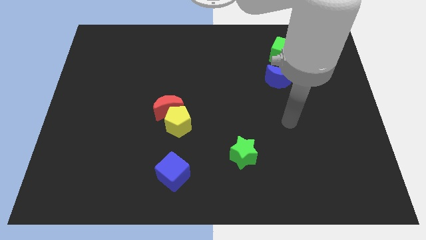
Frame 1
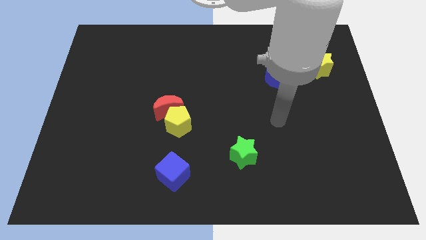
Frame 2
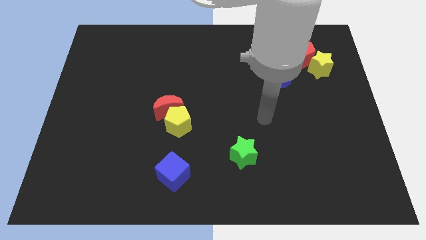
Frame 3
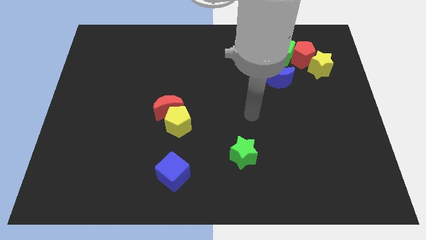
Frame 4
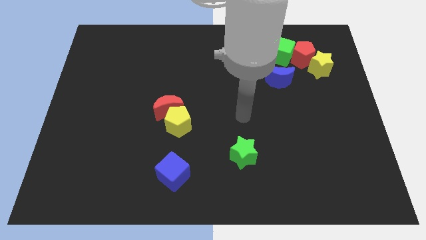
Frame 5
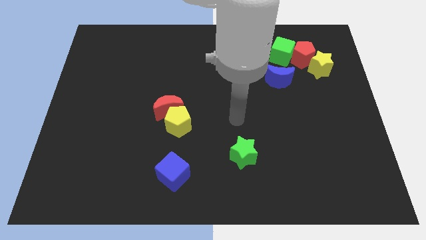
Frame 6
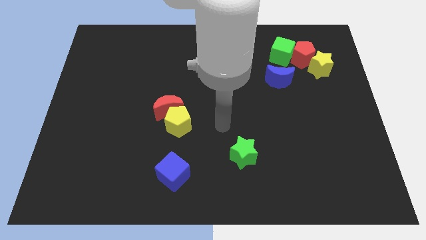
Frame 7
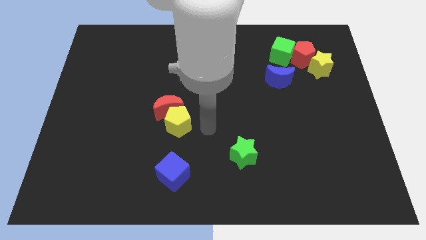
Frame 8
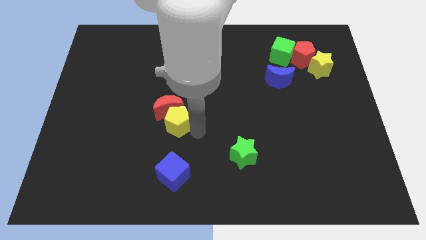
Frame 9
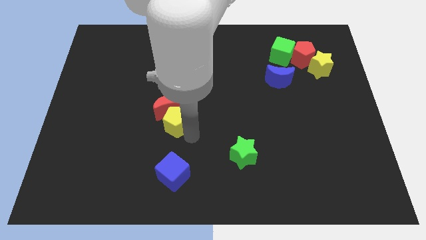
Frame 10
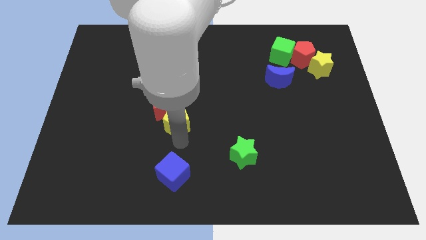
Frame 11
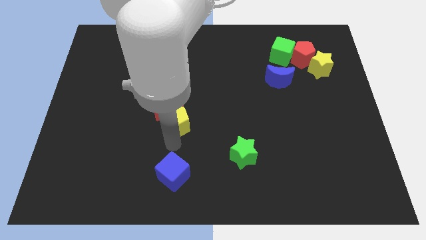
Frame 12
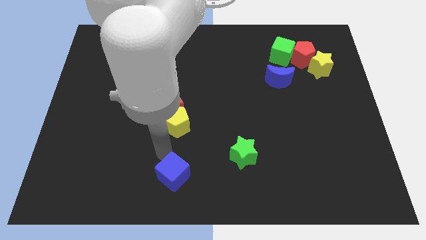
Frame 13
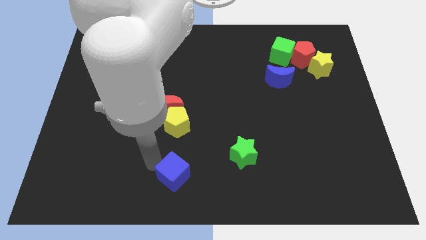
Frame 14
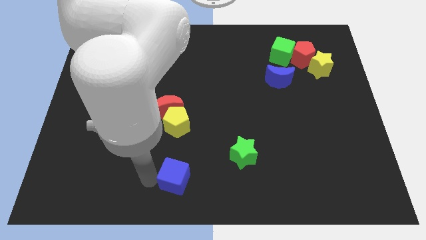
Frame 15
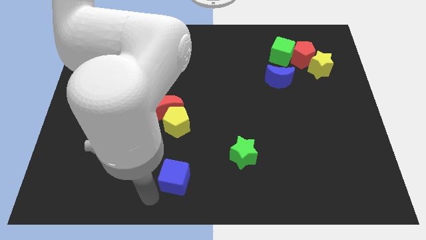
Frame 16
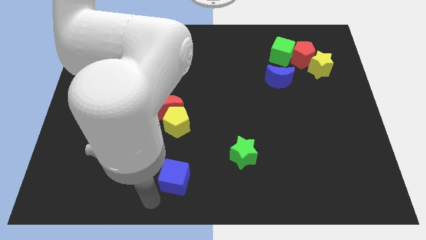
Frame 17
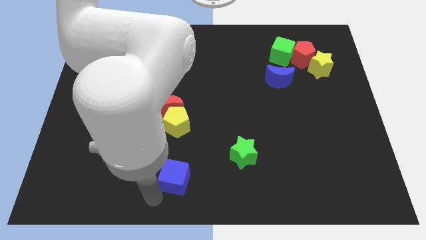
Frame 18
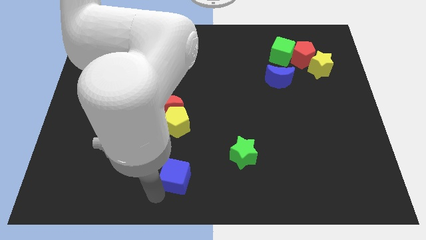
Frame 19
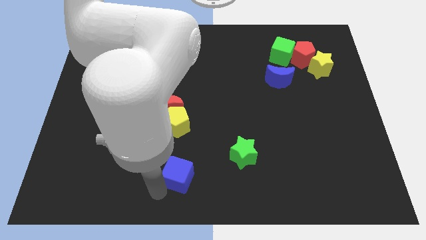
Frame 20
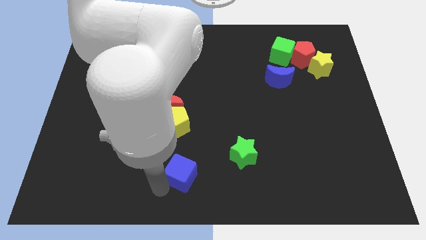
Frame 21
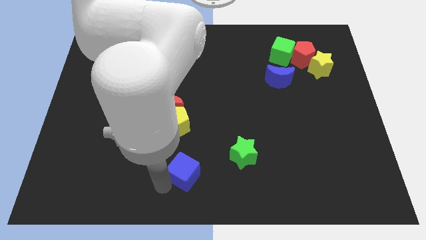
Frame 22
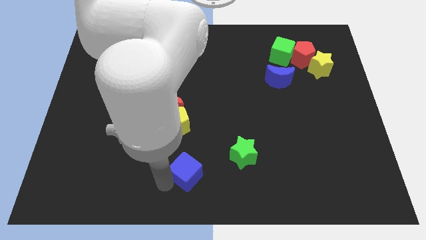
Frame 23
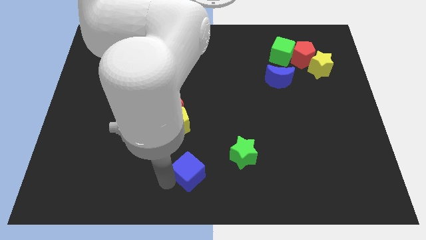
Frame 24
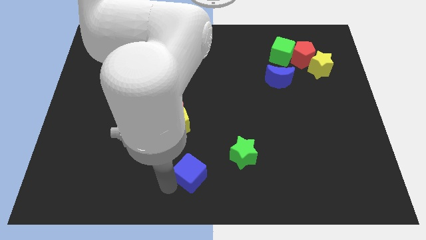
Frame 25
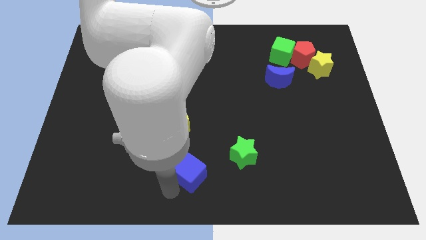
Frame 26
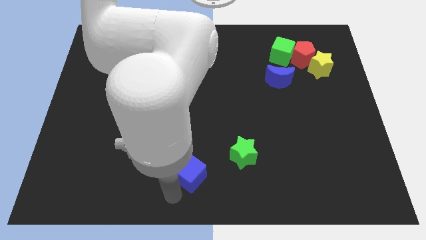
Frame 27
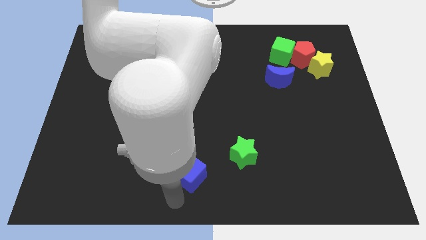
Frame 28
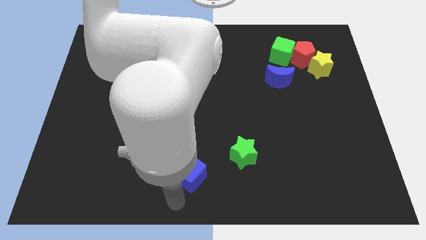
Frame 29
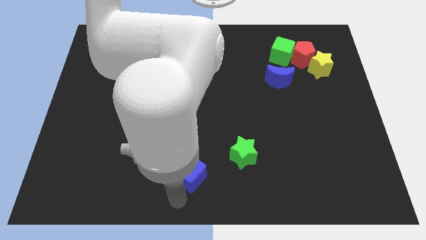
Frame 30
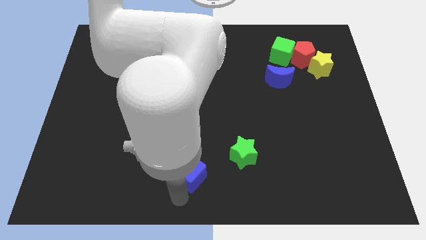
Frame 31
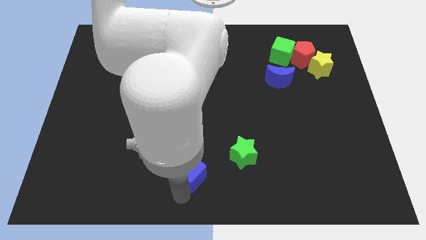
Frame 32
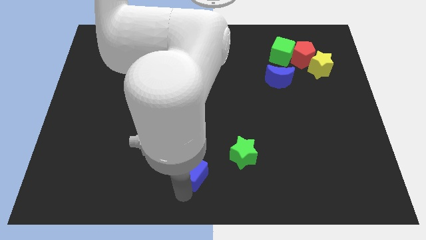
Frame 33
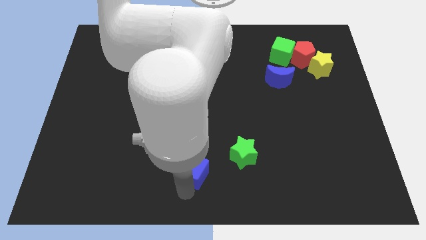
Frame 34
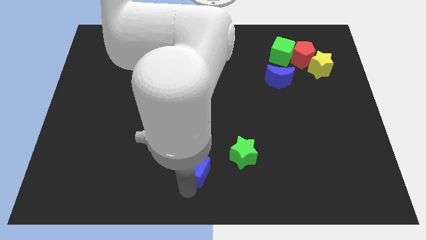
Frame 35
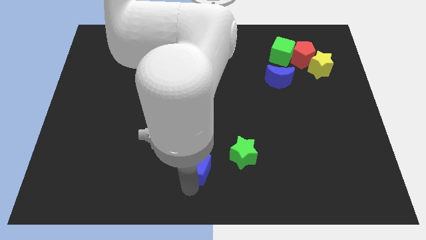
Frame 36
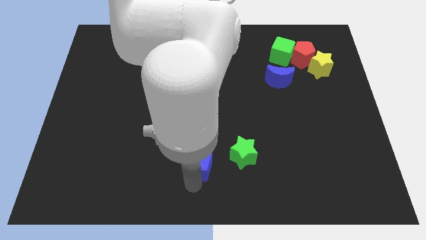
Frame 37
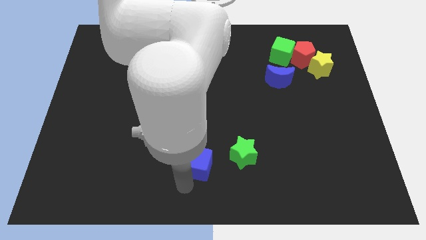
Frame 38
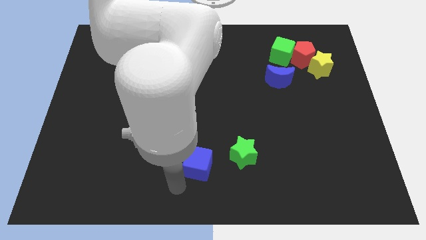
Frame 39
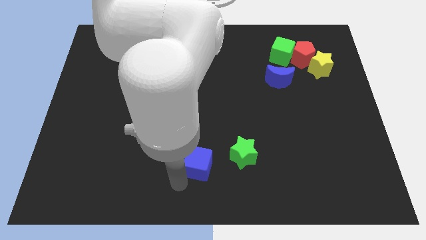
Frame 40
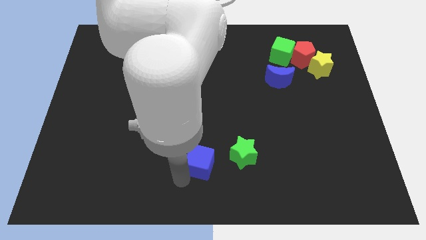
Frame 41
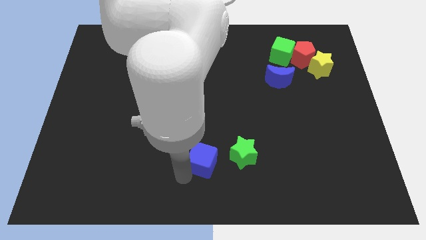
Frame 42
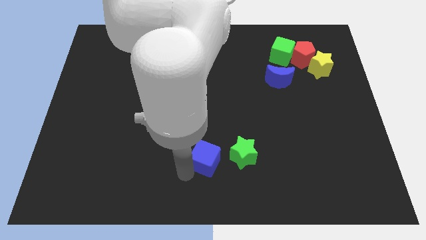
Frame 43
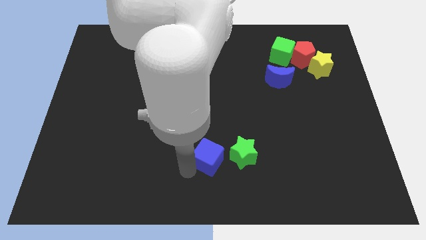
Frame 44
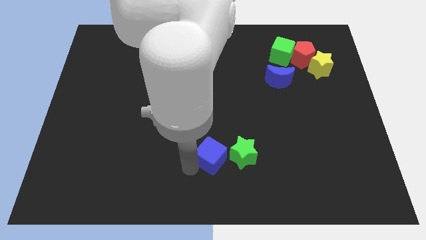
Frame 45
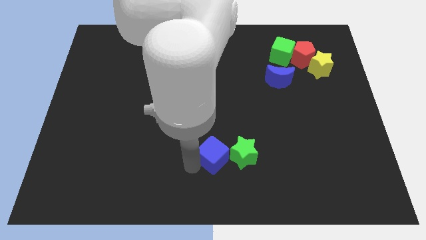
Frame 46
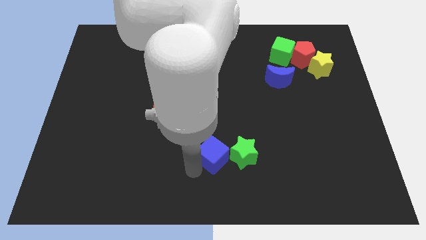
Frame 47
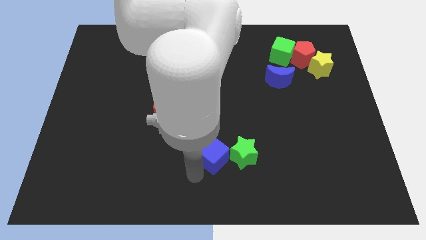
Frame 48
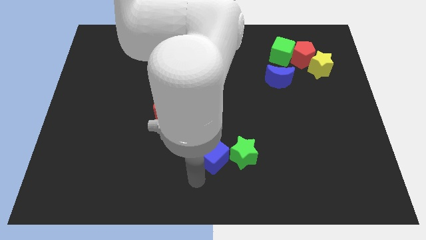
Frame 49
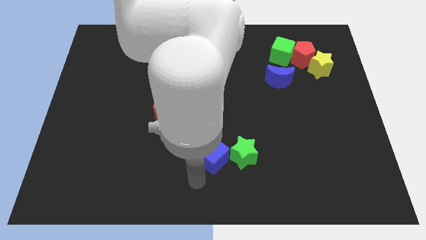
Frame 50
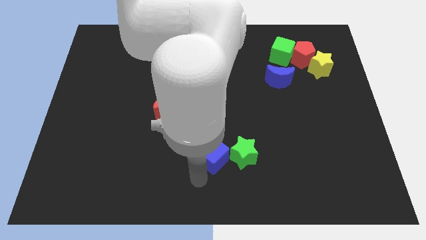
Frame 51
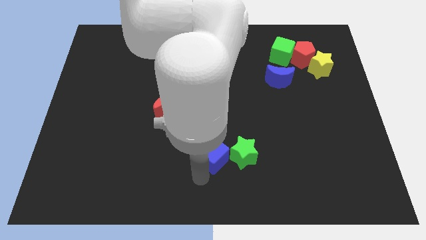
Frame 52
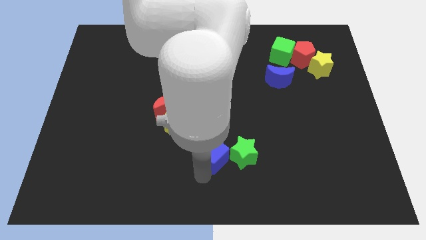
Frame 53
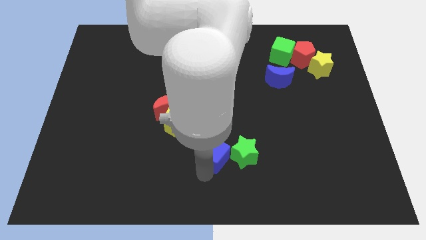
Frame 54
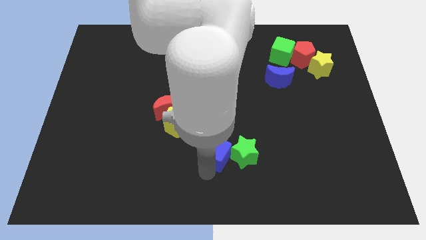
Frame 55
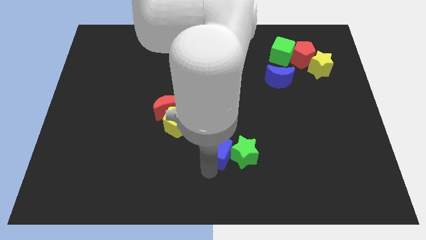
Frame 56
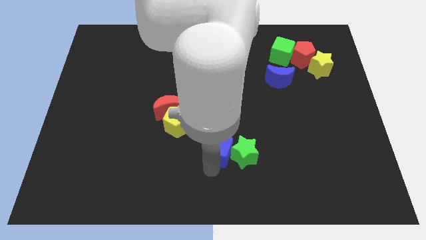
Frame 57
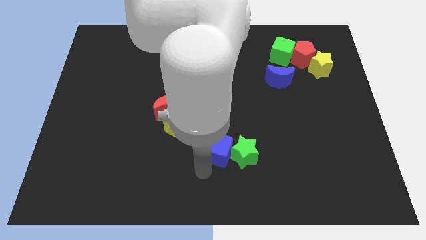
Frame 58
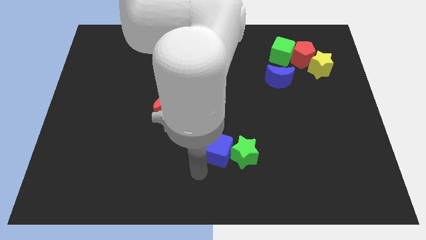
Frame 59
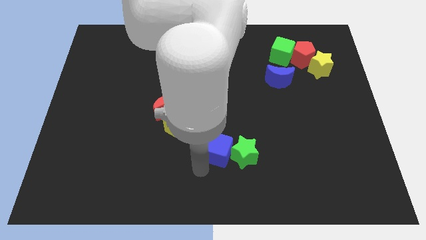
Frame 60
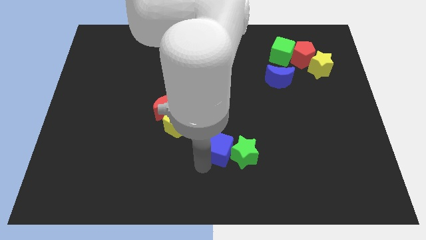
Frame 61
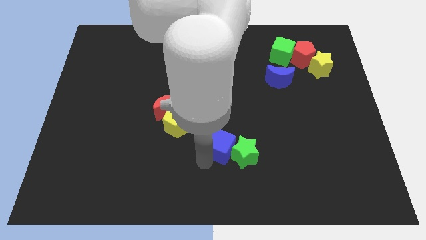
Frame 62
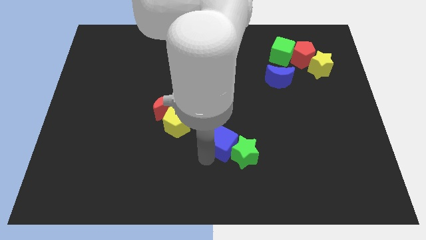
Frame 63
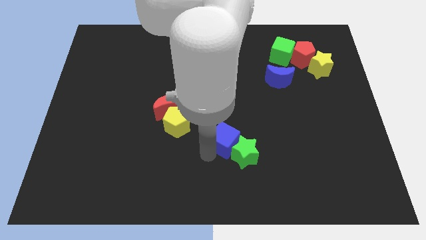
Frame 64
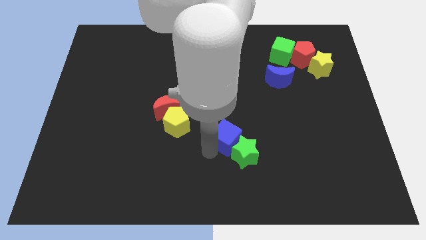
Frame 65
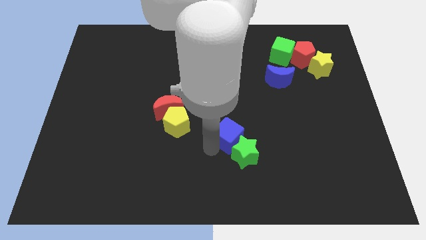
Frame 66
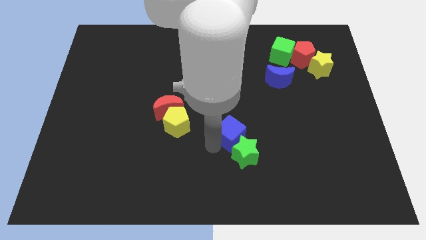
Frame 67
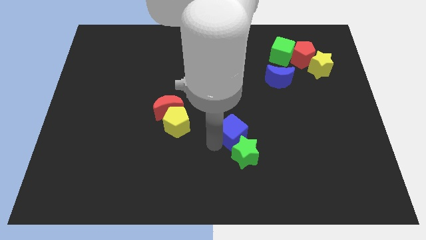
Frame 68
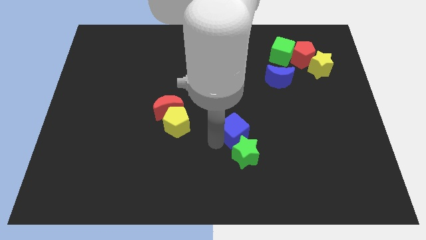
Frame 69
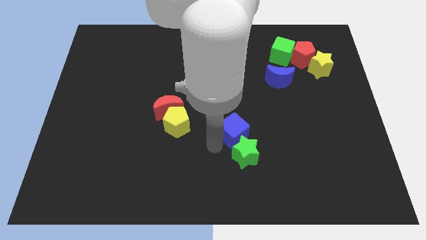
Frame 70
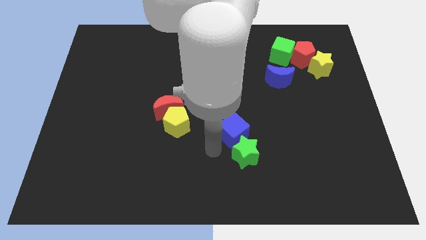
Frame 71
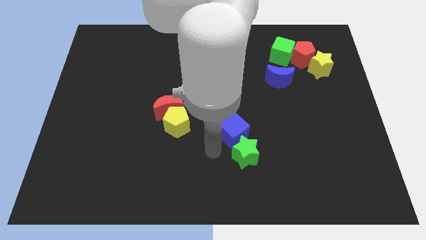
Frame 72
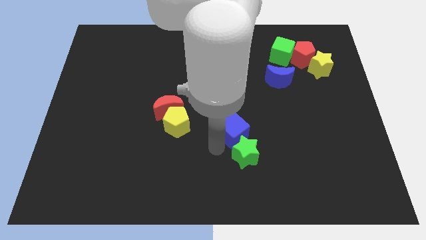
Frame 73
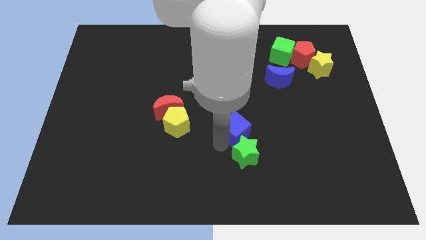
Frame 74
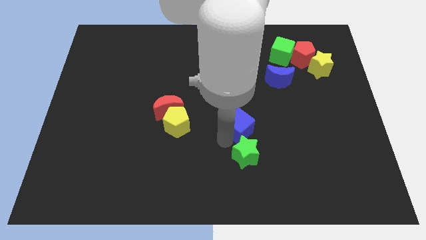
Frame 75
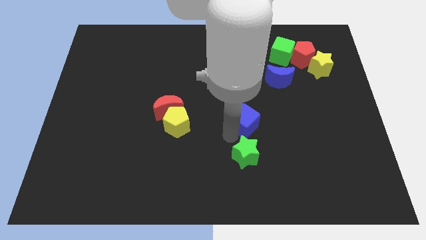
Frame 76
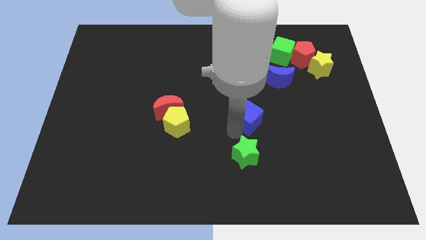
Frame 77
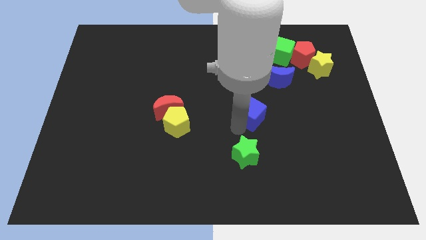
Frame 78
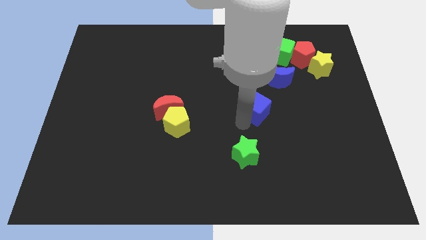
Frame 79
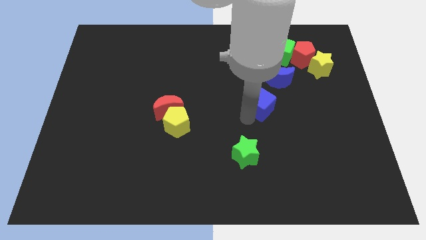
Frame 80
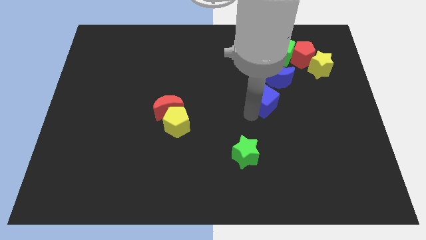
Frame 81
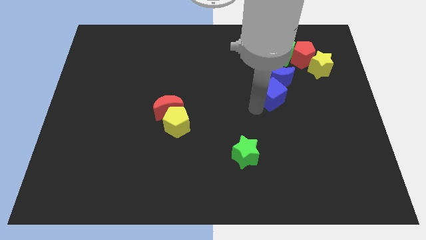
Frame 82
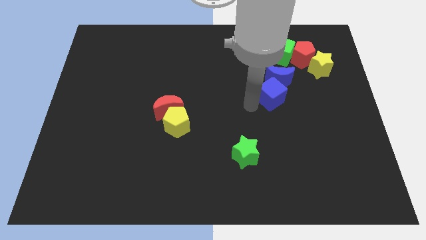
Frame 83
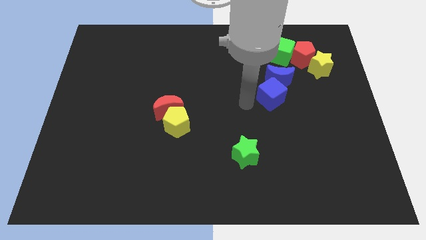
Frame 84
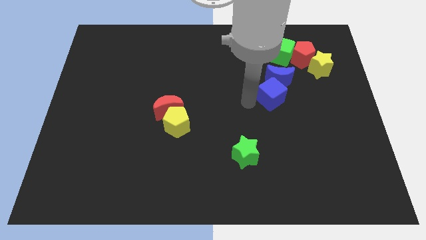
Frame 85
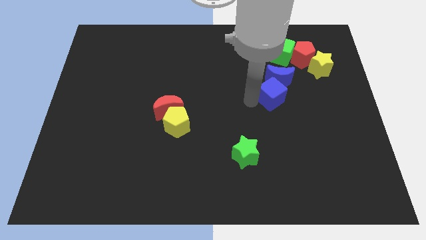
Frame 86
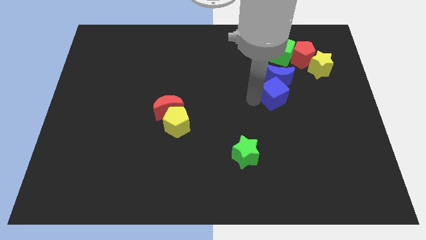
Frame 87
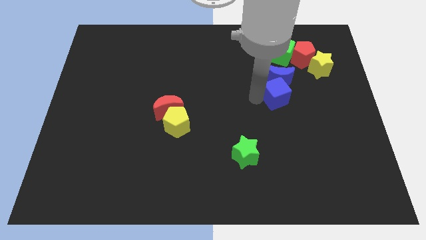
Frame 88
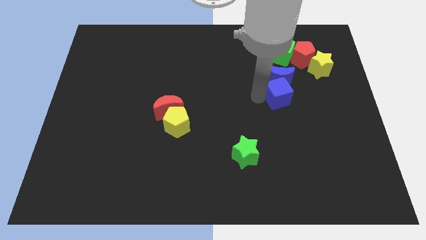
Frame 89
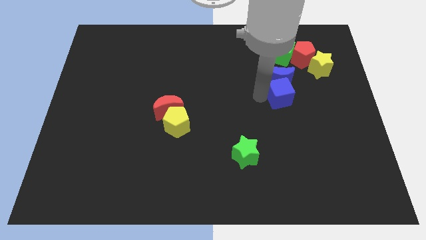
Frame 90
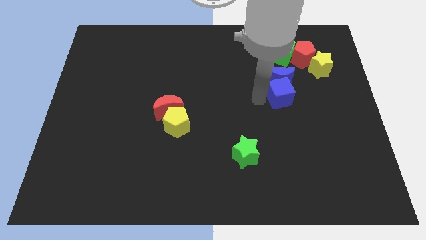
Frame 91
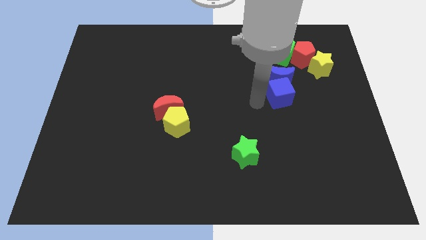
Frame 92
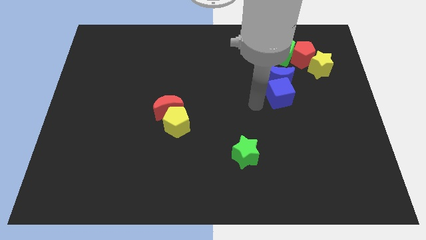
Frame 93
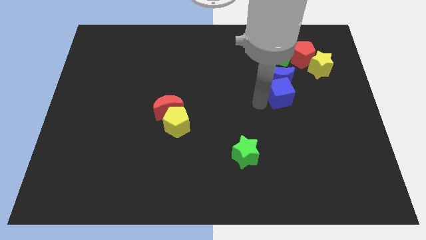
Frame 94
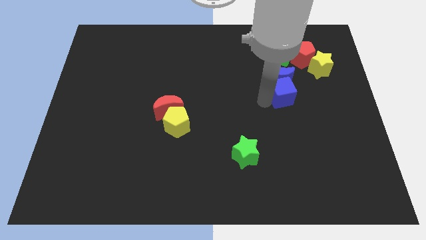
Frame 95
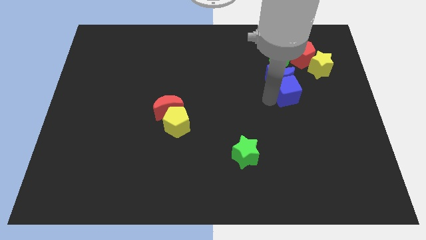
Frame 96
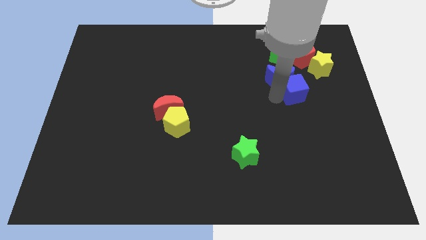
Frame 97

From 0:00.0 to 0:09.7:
put the blue cube right of the blue moon
